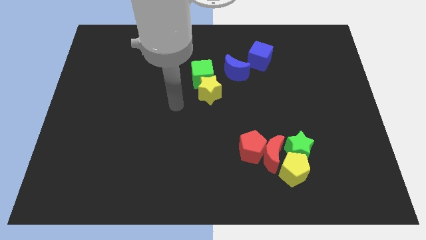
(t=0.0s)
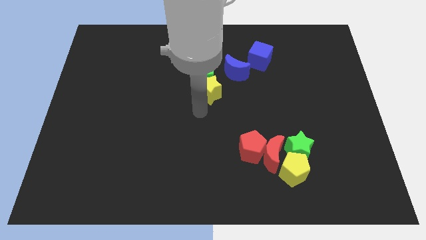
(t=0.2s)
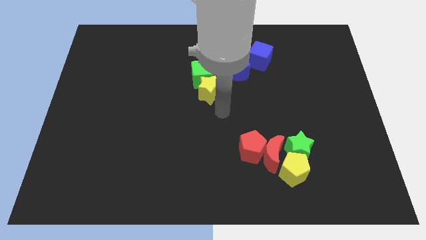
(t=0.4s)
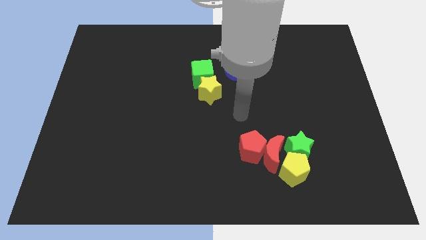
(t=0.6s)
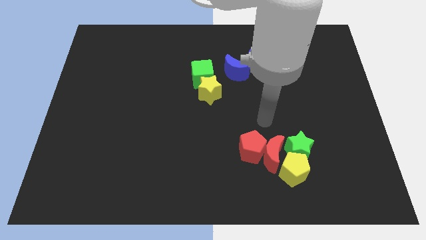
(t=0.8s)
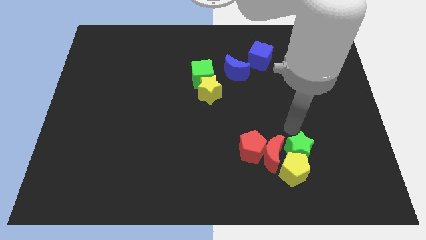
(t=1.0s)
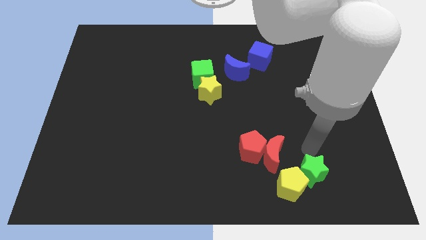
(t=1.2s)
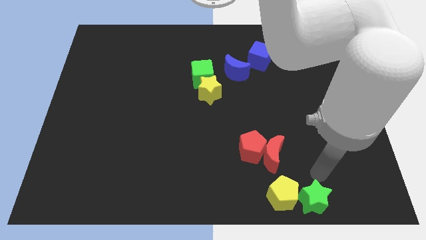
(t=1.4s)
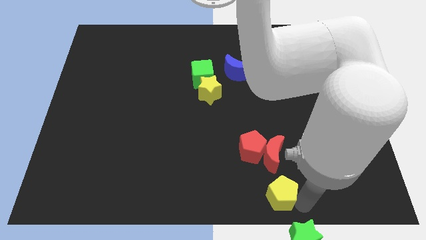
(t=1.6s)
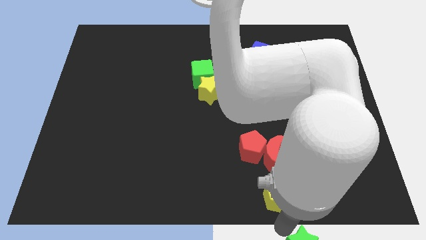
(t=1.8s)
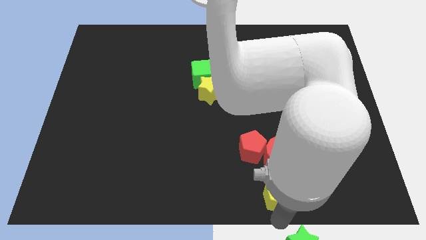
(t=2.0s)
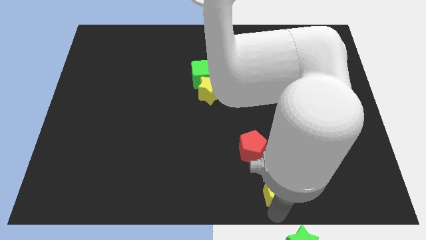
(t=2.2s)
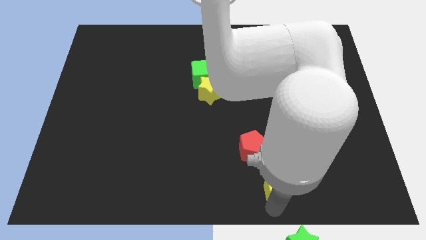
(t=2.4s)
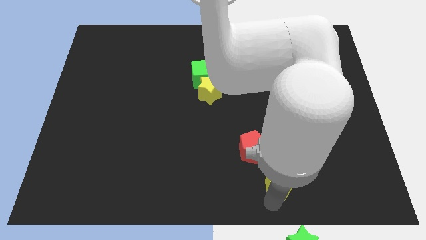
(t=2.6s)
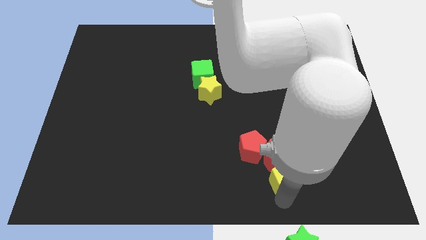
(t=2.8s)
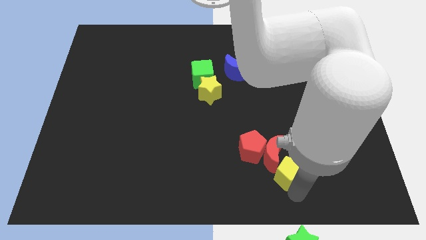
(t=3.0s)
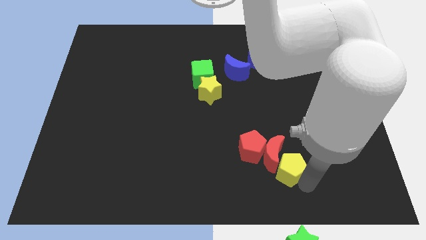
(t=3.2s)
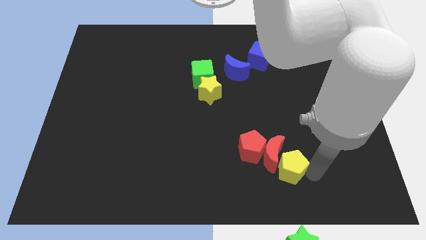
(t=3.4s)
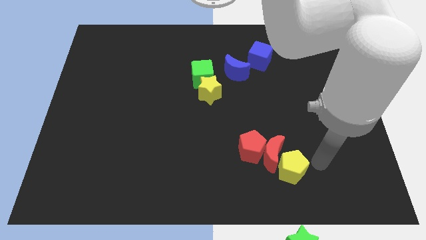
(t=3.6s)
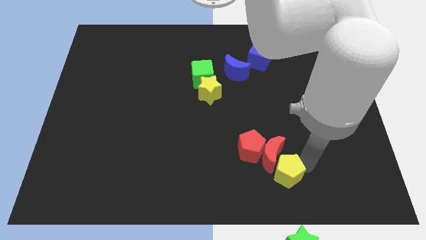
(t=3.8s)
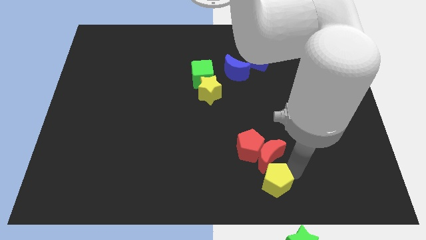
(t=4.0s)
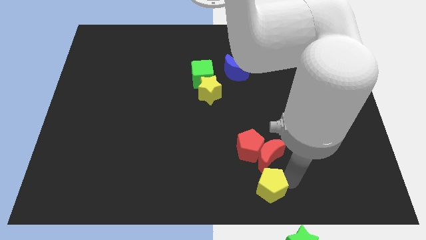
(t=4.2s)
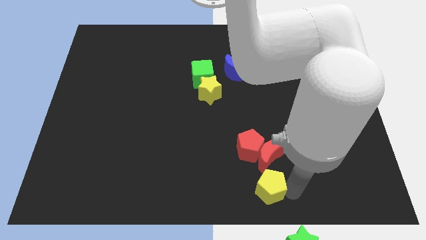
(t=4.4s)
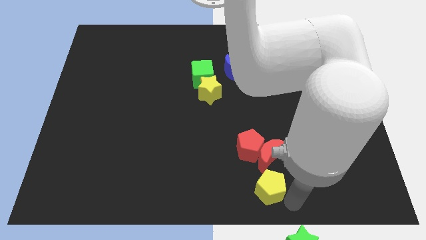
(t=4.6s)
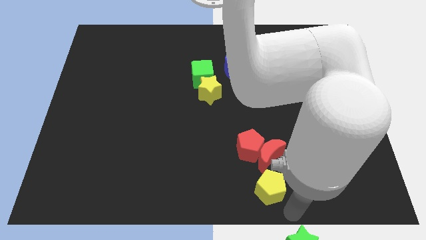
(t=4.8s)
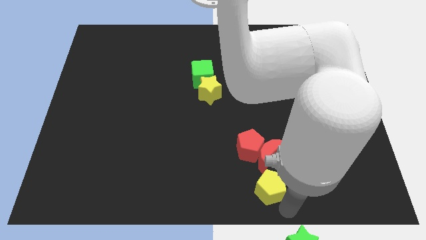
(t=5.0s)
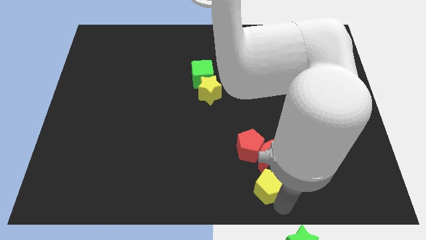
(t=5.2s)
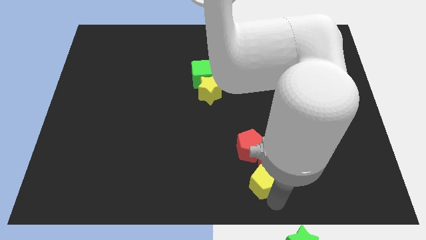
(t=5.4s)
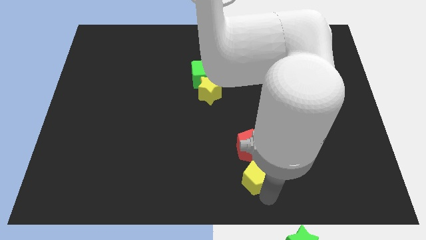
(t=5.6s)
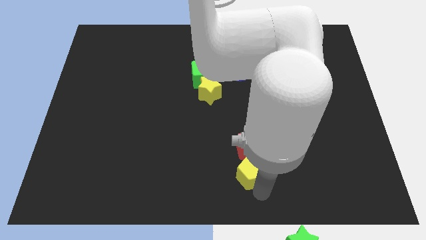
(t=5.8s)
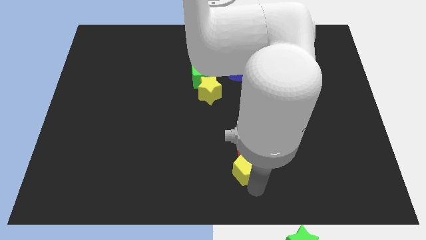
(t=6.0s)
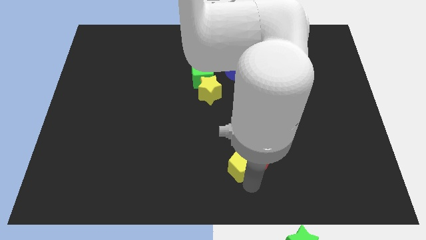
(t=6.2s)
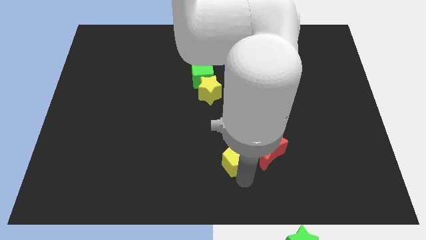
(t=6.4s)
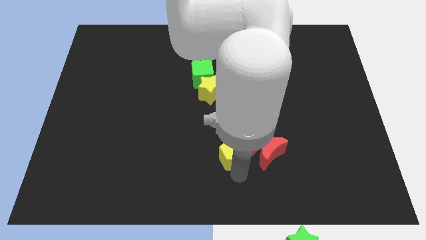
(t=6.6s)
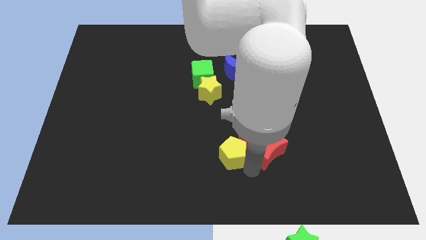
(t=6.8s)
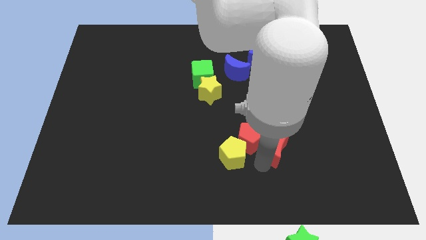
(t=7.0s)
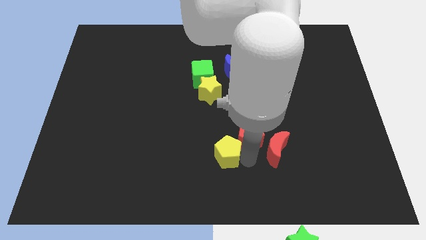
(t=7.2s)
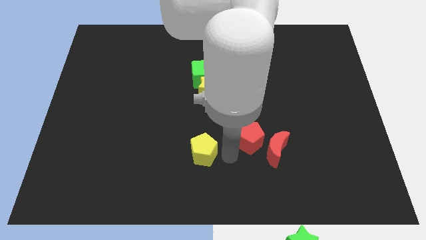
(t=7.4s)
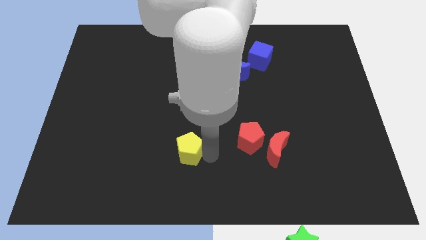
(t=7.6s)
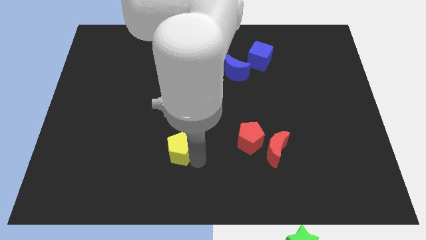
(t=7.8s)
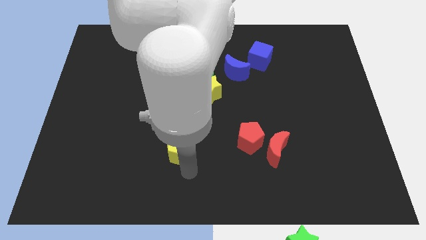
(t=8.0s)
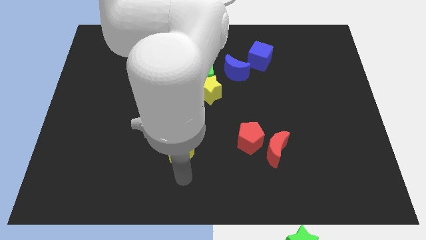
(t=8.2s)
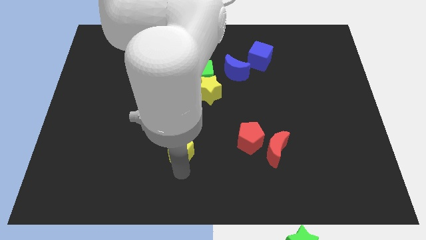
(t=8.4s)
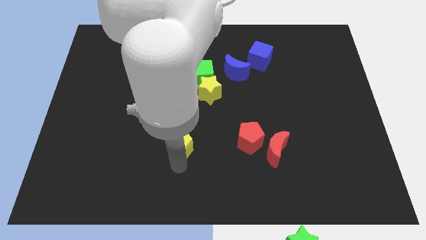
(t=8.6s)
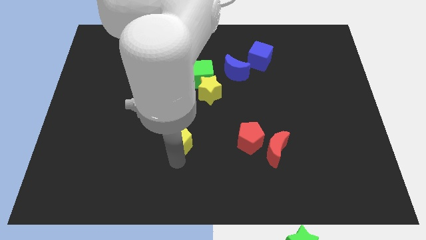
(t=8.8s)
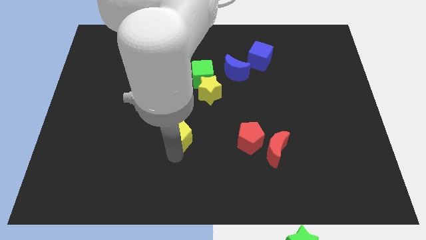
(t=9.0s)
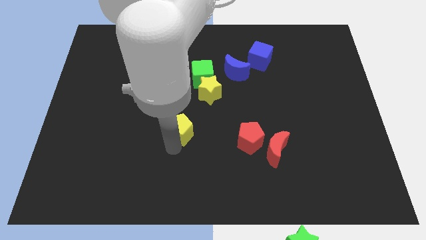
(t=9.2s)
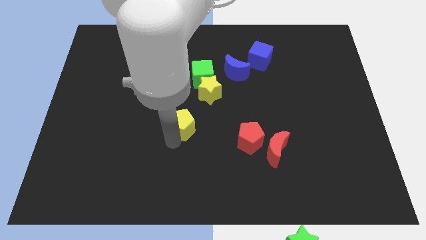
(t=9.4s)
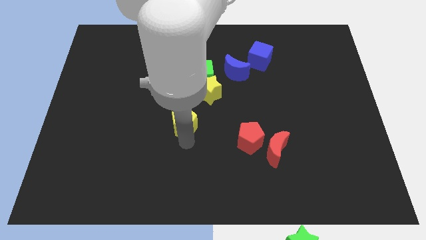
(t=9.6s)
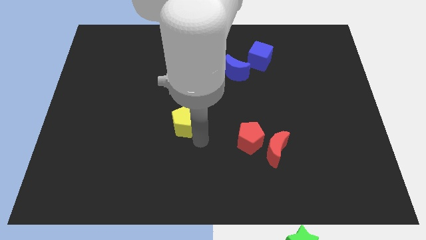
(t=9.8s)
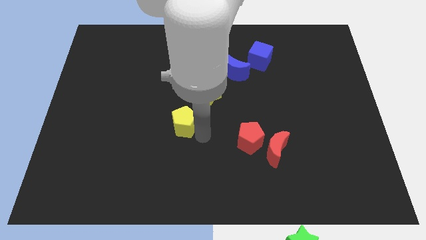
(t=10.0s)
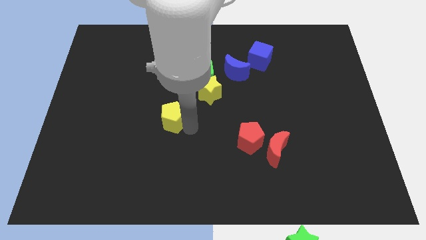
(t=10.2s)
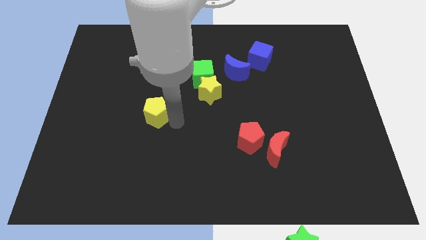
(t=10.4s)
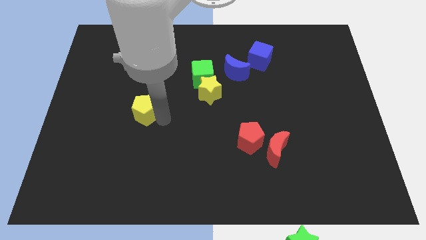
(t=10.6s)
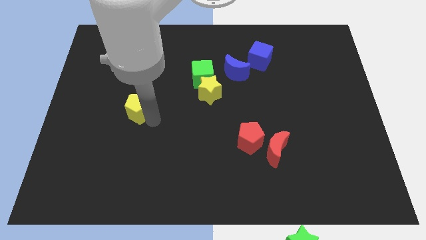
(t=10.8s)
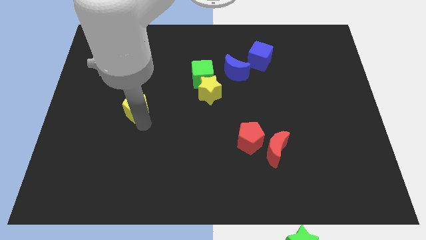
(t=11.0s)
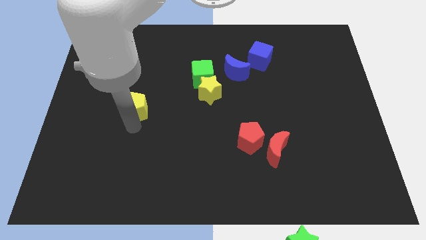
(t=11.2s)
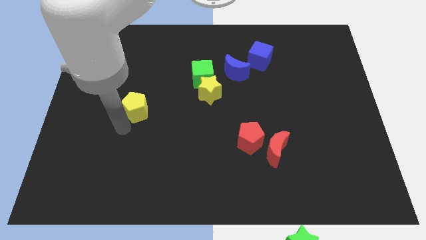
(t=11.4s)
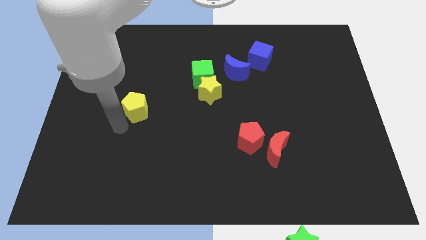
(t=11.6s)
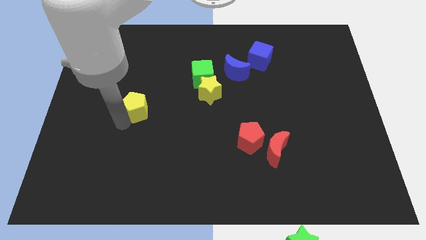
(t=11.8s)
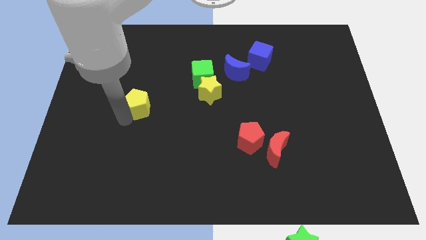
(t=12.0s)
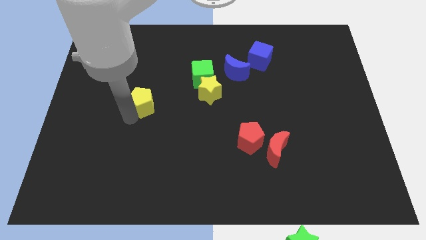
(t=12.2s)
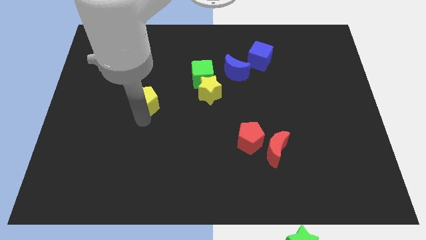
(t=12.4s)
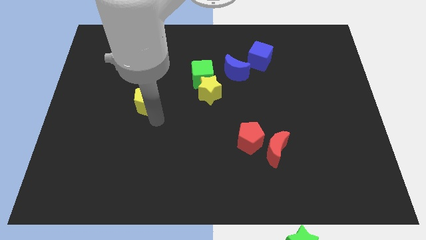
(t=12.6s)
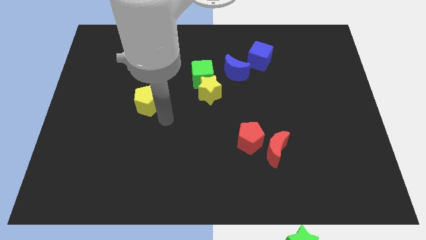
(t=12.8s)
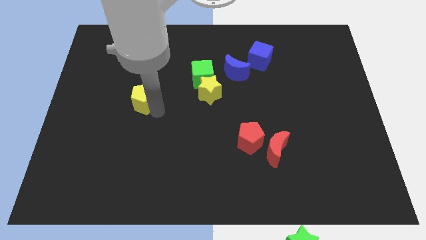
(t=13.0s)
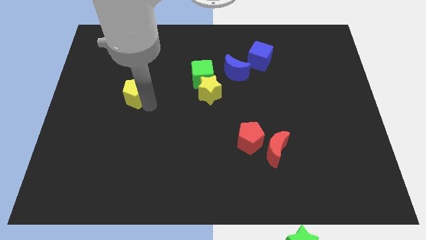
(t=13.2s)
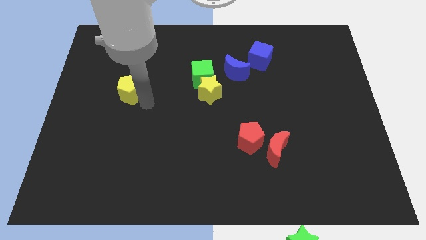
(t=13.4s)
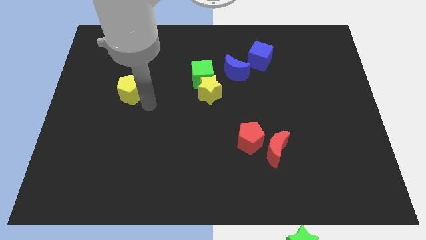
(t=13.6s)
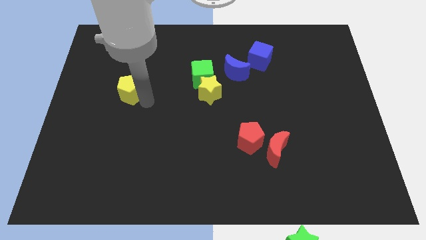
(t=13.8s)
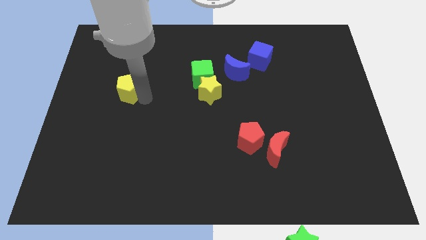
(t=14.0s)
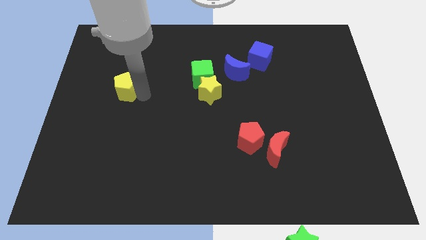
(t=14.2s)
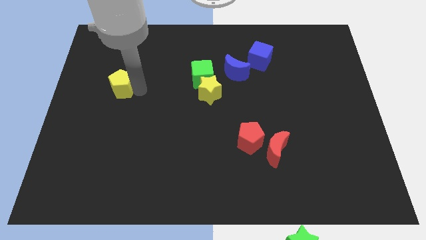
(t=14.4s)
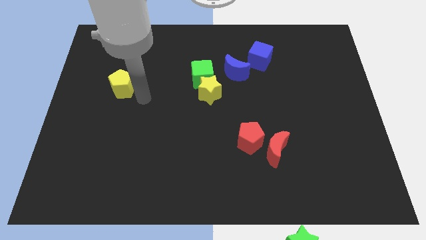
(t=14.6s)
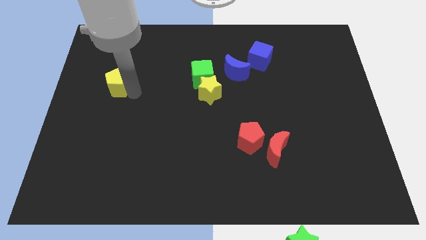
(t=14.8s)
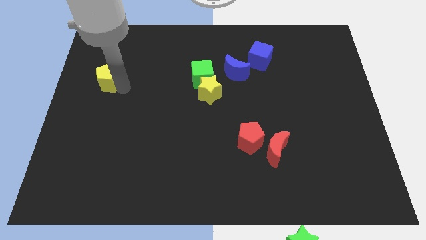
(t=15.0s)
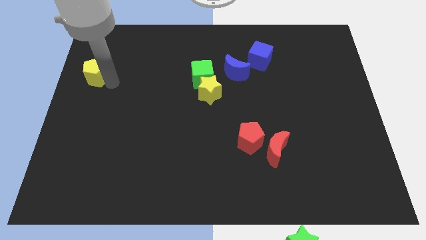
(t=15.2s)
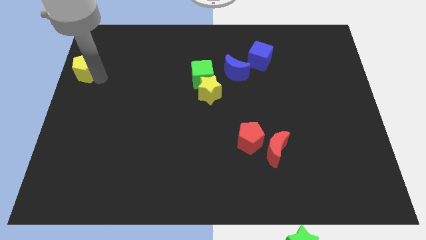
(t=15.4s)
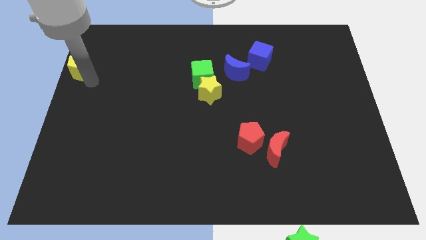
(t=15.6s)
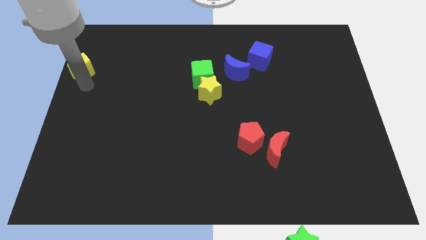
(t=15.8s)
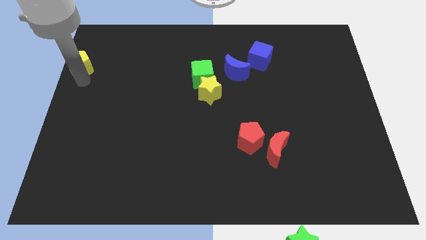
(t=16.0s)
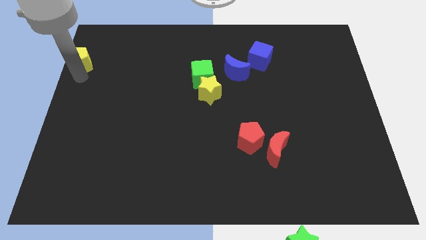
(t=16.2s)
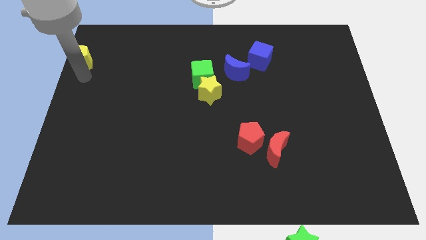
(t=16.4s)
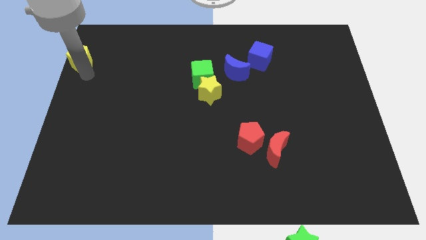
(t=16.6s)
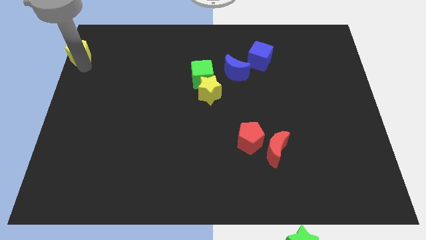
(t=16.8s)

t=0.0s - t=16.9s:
push the yellow pentagon to the upper left corner
